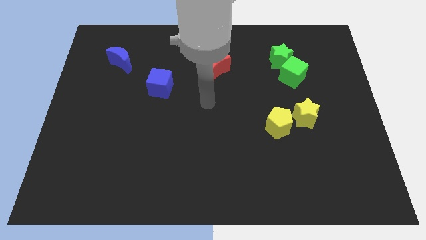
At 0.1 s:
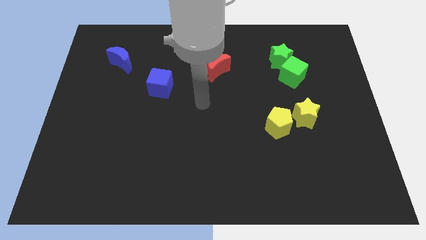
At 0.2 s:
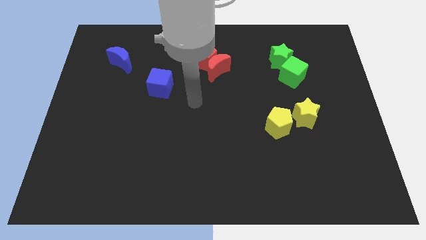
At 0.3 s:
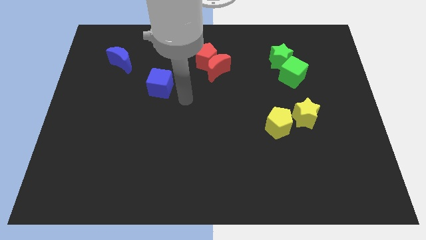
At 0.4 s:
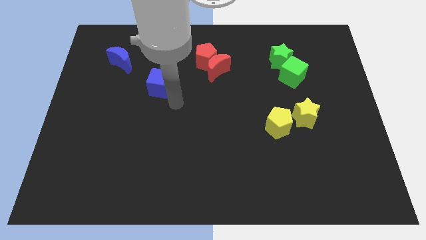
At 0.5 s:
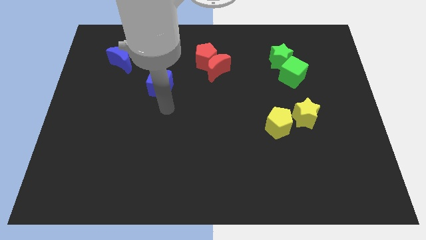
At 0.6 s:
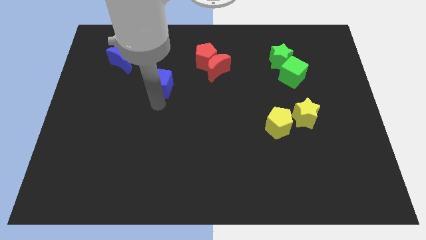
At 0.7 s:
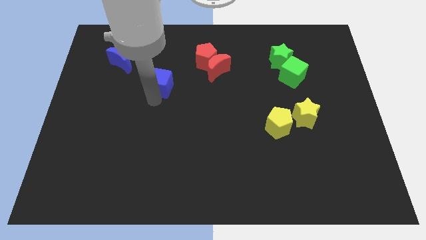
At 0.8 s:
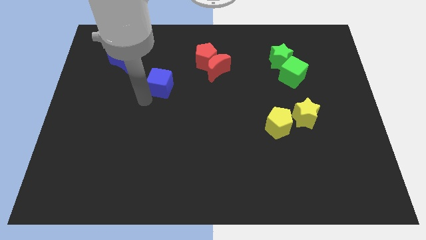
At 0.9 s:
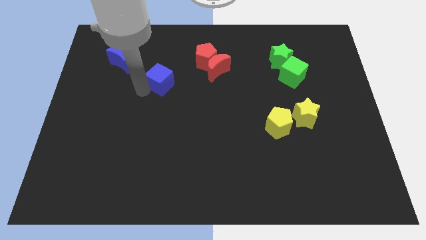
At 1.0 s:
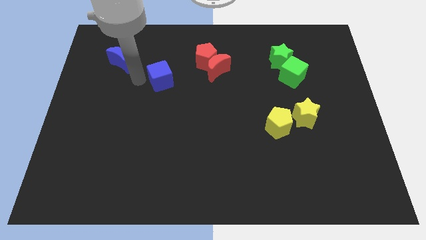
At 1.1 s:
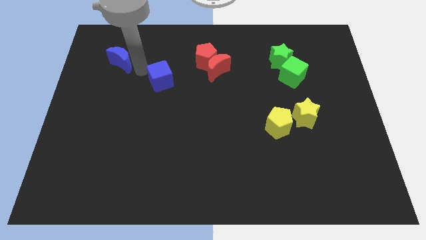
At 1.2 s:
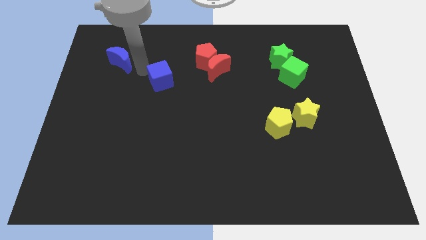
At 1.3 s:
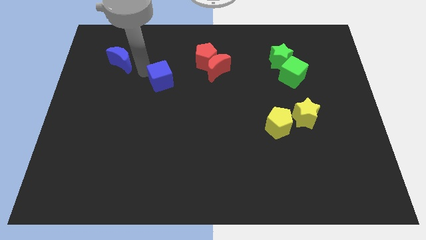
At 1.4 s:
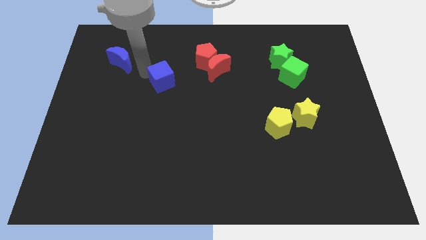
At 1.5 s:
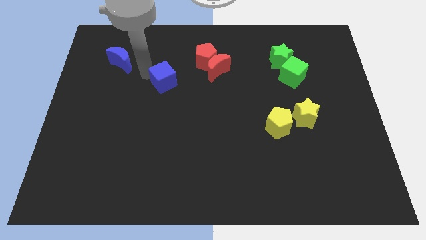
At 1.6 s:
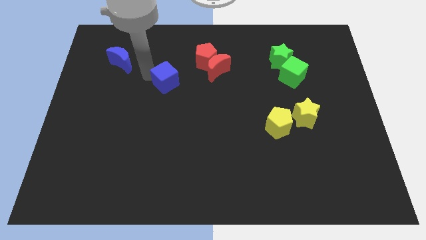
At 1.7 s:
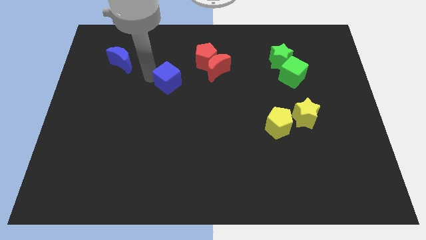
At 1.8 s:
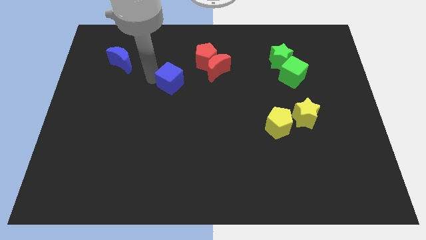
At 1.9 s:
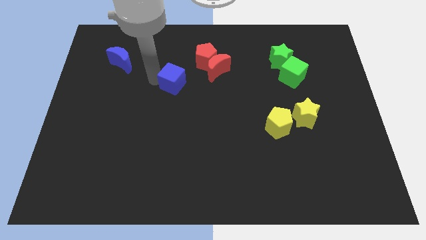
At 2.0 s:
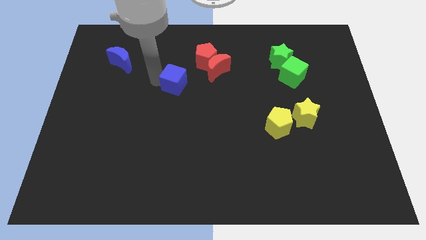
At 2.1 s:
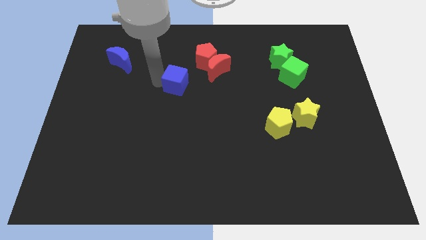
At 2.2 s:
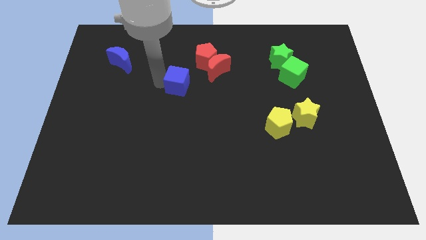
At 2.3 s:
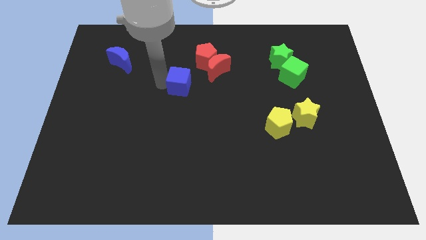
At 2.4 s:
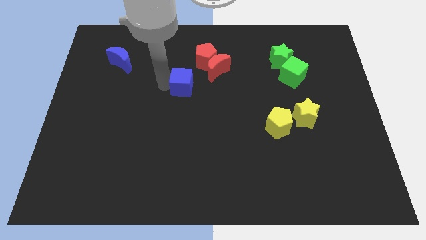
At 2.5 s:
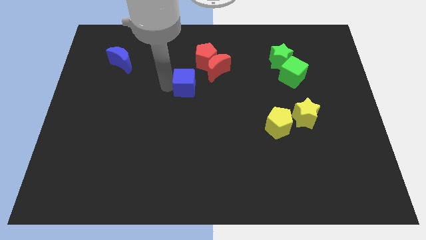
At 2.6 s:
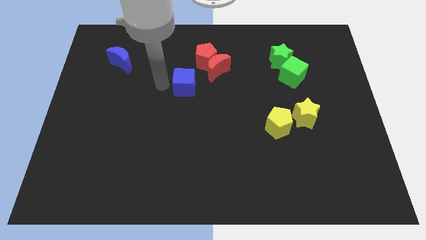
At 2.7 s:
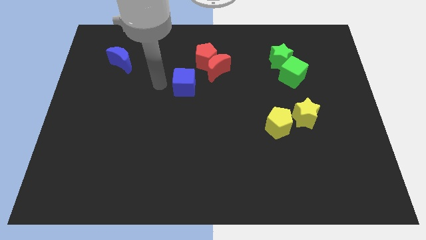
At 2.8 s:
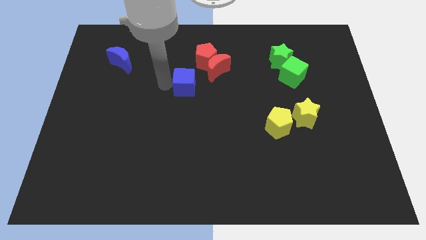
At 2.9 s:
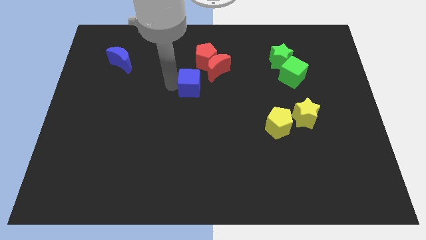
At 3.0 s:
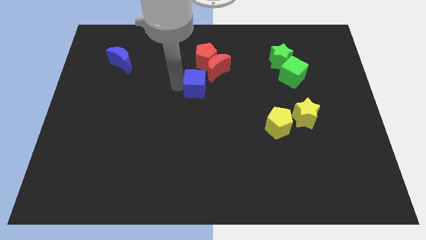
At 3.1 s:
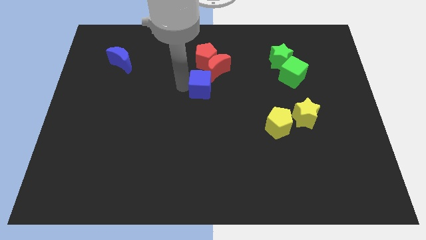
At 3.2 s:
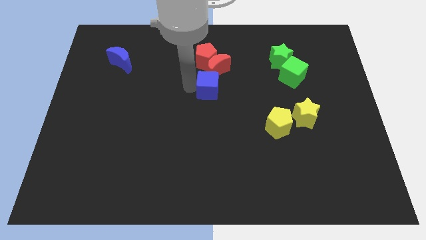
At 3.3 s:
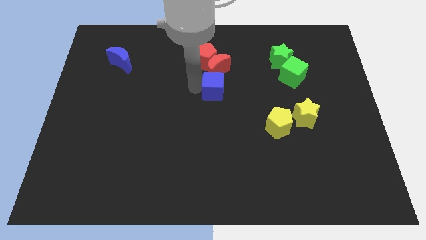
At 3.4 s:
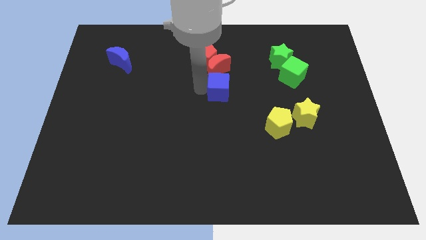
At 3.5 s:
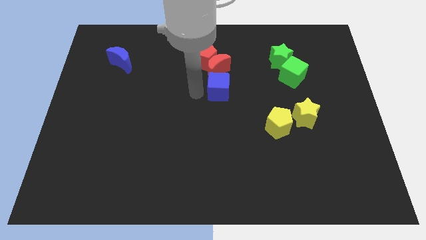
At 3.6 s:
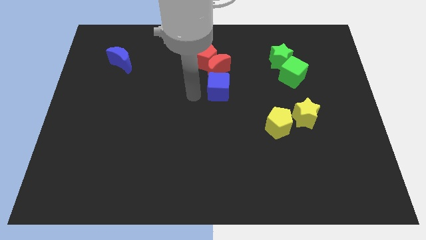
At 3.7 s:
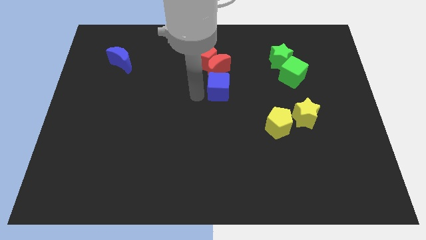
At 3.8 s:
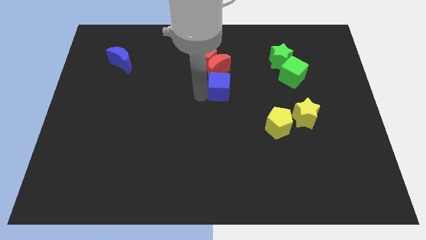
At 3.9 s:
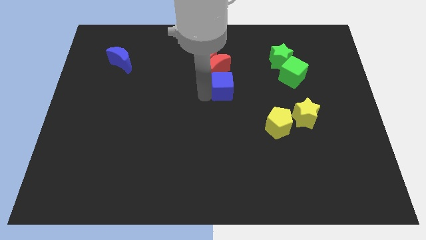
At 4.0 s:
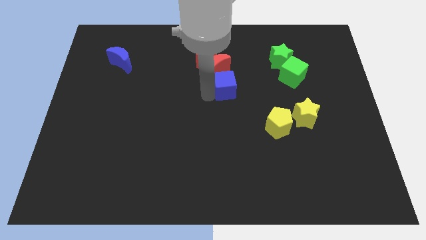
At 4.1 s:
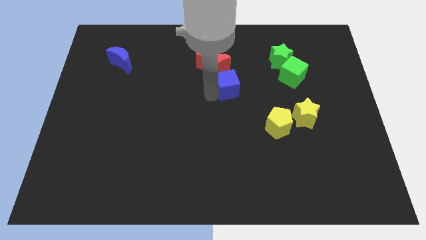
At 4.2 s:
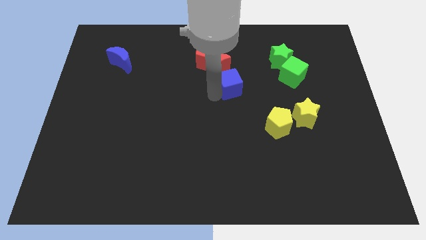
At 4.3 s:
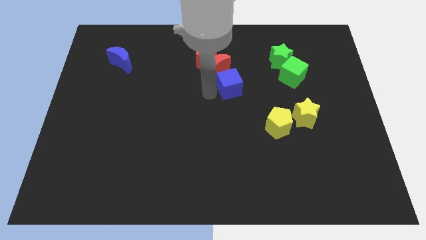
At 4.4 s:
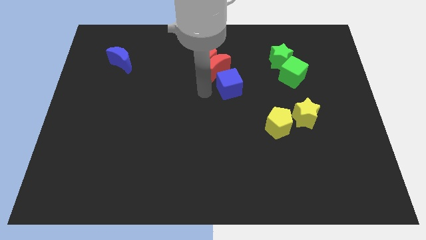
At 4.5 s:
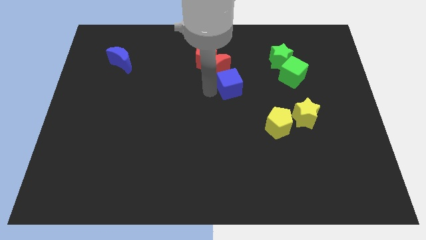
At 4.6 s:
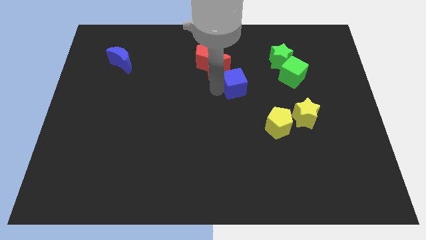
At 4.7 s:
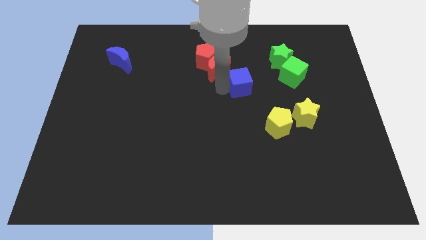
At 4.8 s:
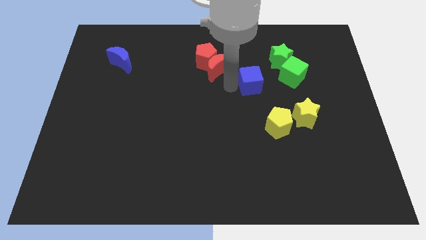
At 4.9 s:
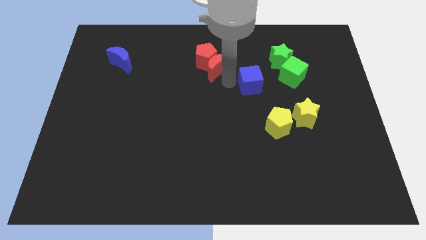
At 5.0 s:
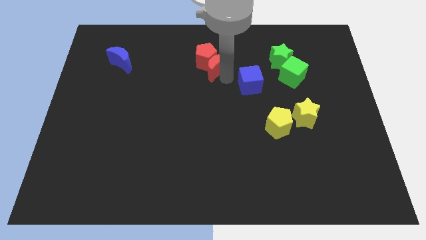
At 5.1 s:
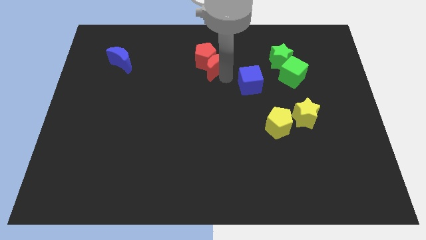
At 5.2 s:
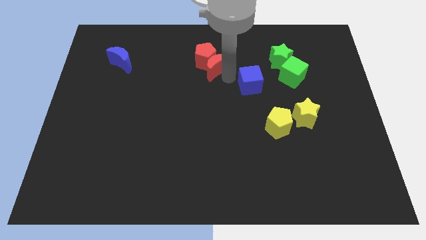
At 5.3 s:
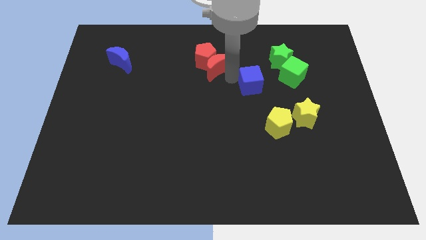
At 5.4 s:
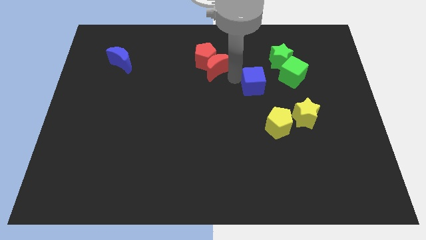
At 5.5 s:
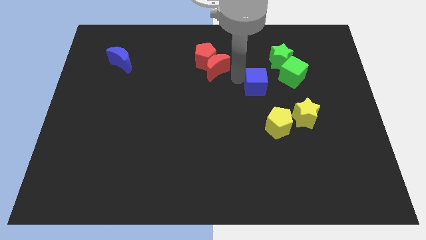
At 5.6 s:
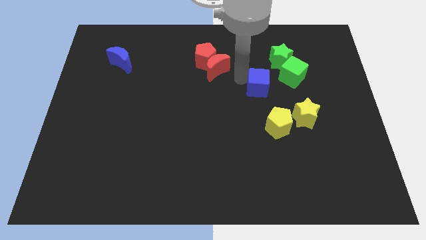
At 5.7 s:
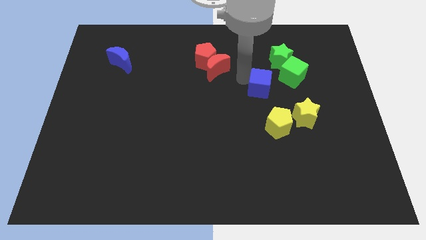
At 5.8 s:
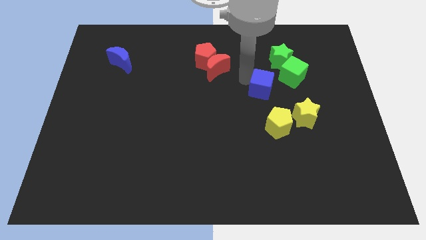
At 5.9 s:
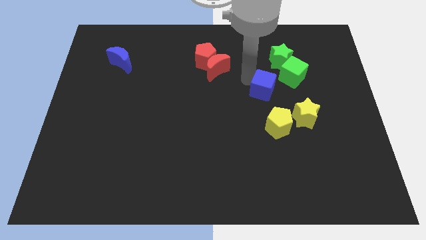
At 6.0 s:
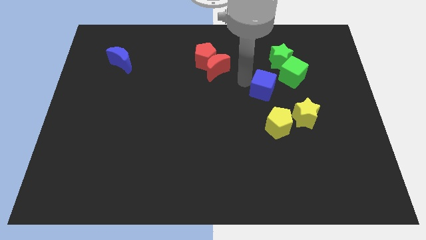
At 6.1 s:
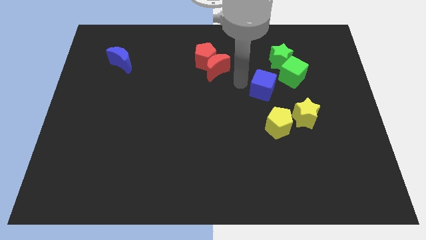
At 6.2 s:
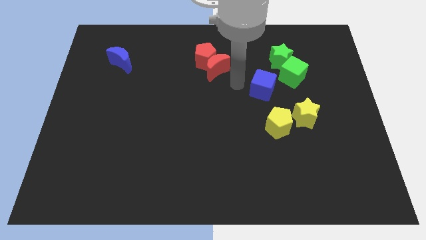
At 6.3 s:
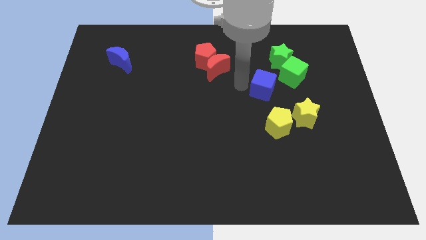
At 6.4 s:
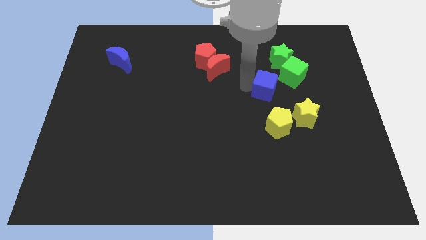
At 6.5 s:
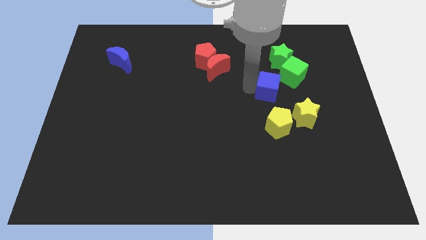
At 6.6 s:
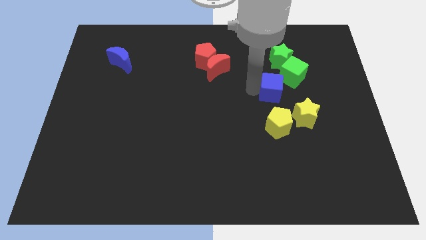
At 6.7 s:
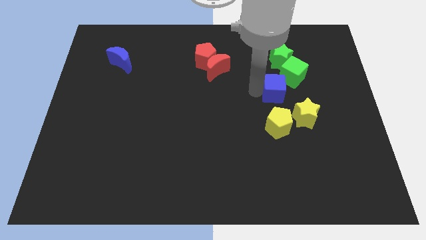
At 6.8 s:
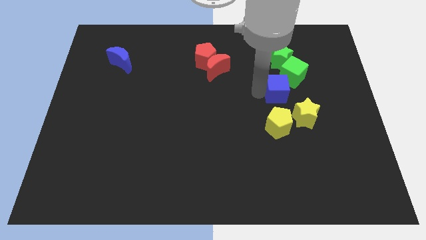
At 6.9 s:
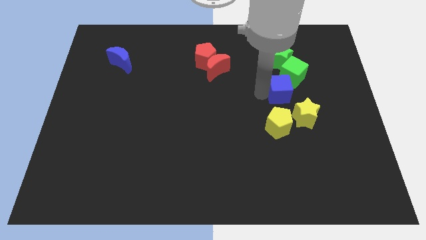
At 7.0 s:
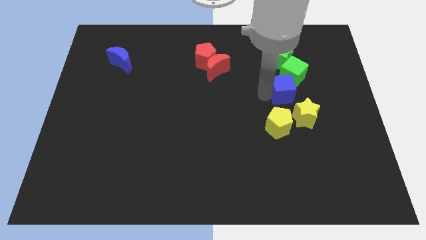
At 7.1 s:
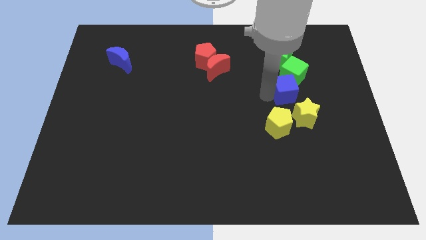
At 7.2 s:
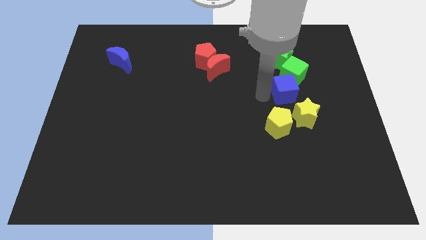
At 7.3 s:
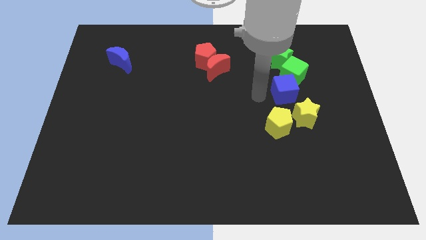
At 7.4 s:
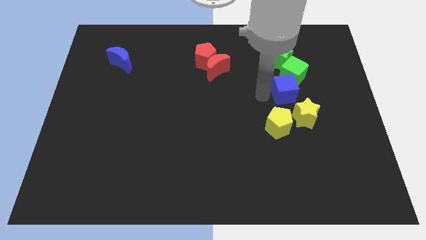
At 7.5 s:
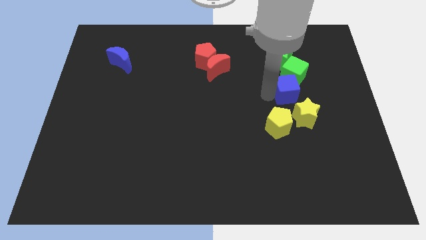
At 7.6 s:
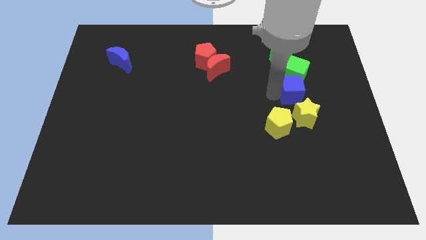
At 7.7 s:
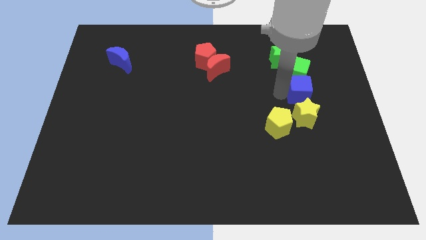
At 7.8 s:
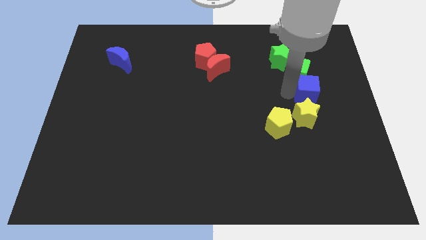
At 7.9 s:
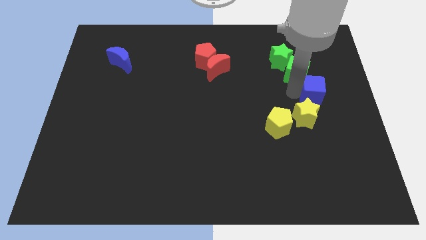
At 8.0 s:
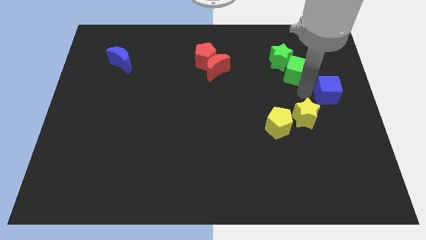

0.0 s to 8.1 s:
put the blue cube to the right side
